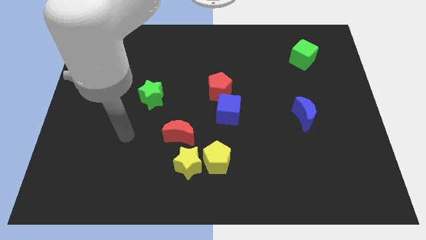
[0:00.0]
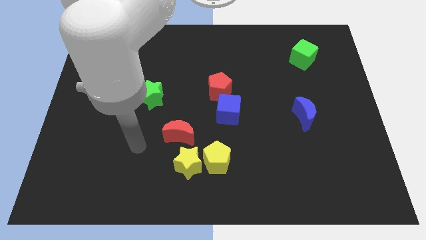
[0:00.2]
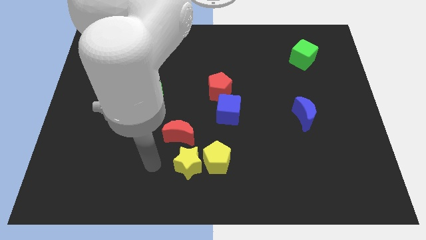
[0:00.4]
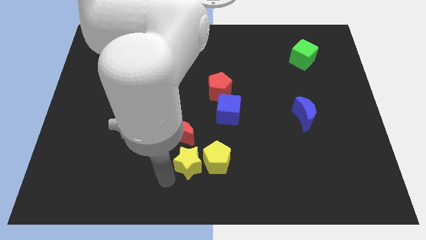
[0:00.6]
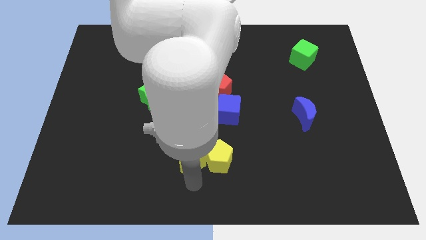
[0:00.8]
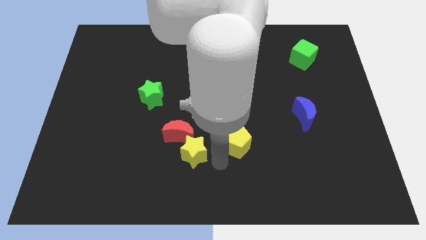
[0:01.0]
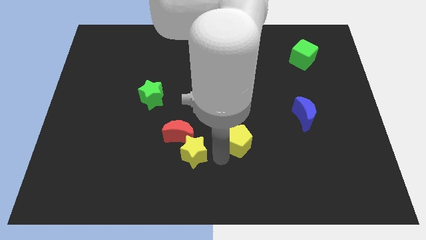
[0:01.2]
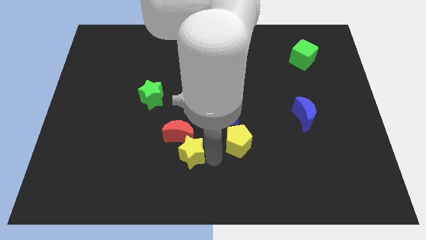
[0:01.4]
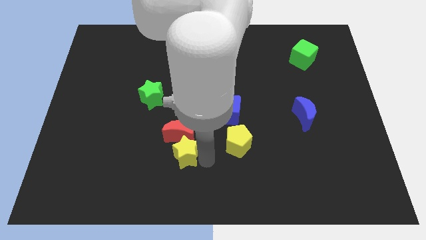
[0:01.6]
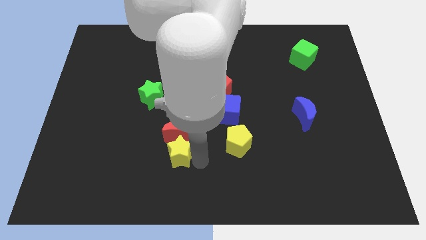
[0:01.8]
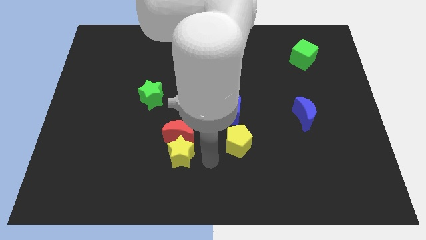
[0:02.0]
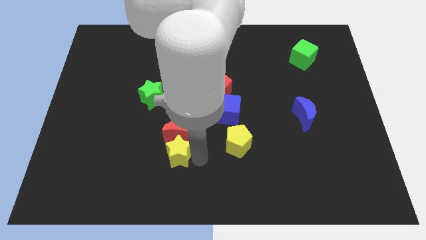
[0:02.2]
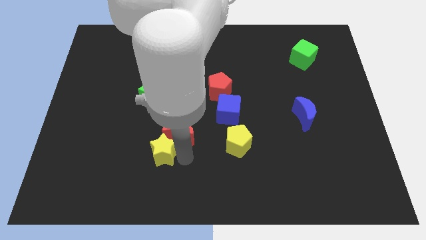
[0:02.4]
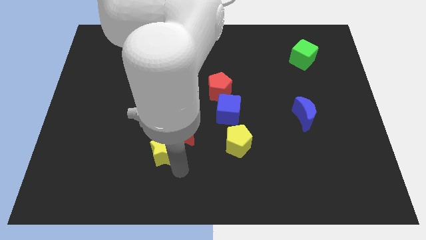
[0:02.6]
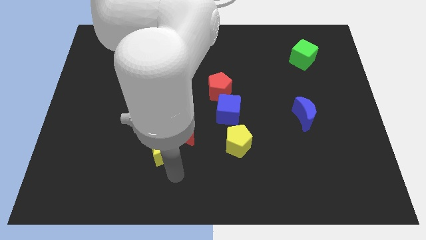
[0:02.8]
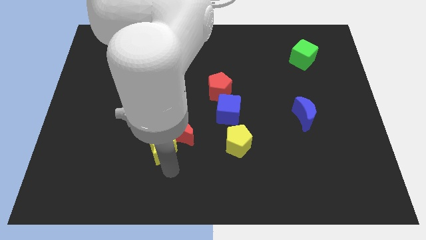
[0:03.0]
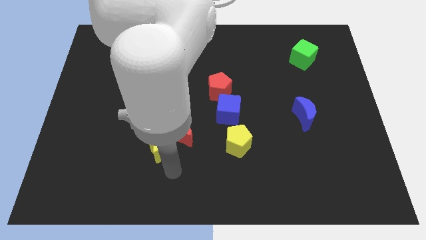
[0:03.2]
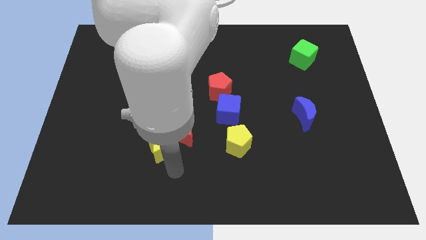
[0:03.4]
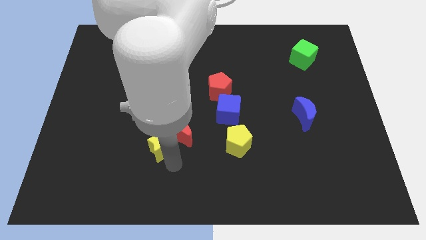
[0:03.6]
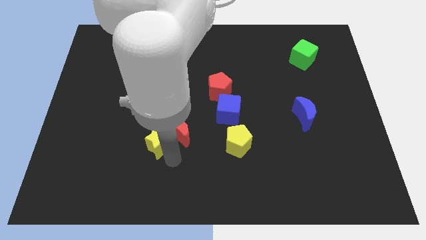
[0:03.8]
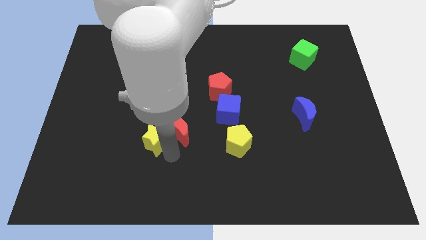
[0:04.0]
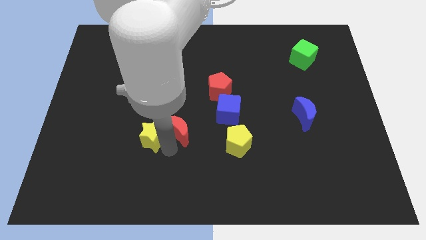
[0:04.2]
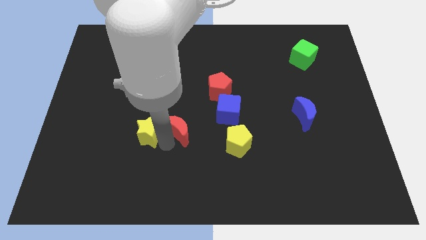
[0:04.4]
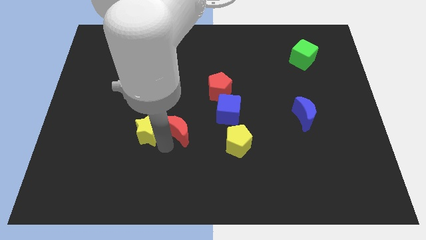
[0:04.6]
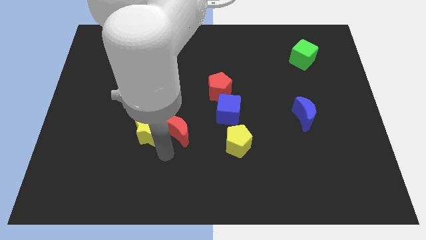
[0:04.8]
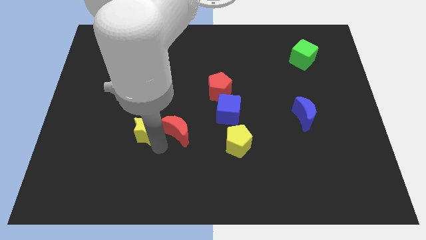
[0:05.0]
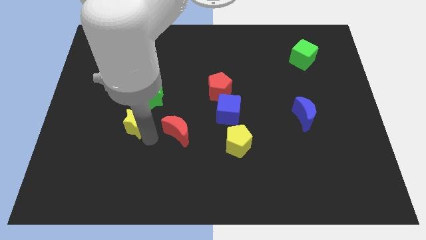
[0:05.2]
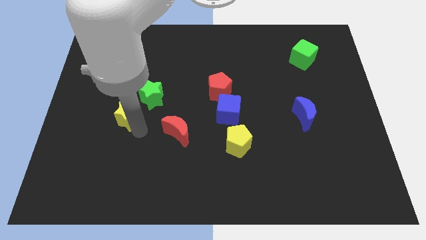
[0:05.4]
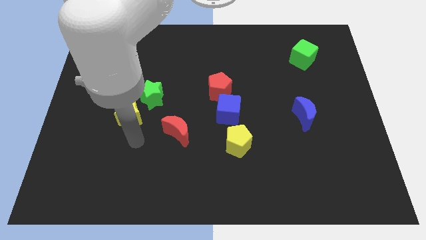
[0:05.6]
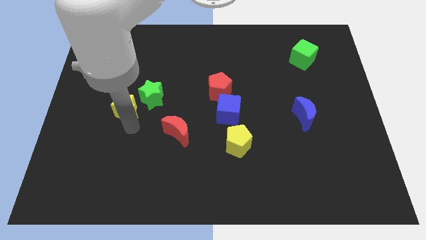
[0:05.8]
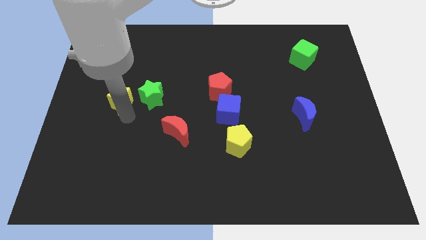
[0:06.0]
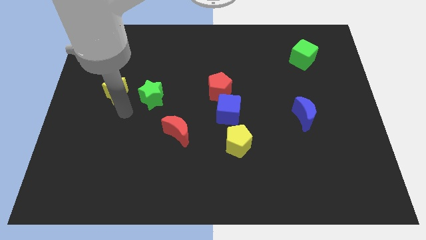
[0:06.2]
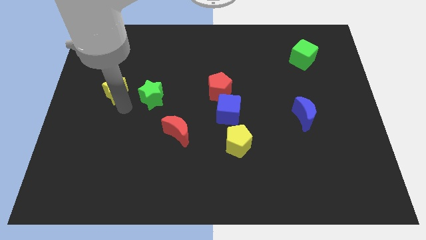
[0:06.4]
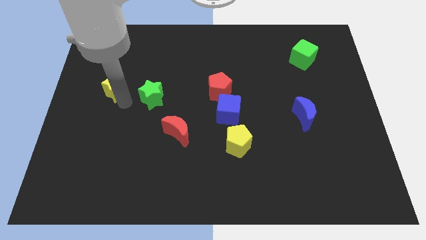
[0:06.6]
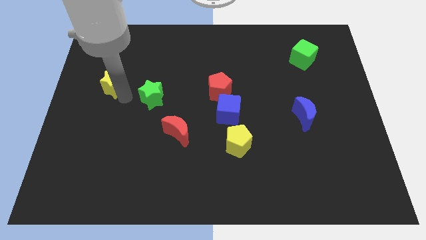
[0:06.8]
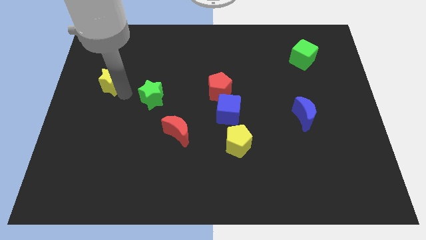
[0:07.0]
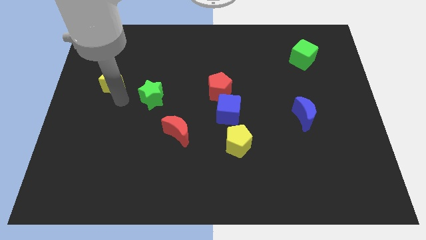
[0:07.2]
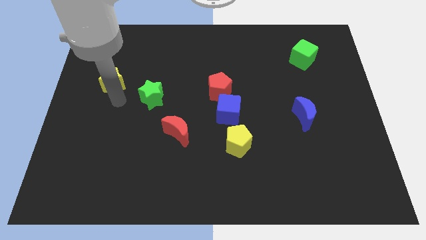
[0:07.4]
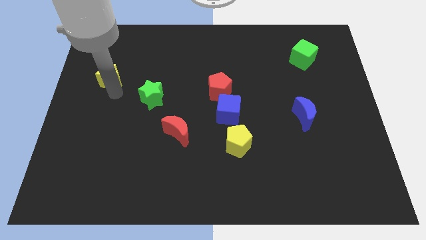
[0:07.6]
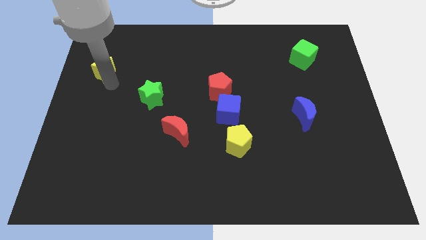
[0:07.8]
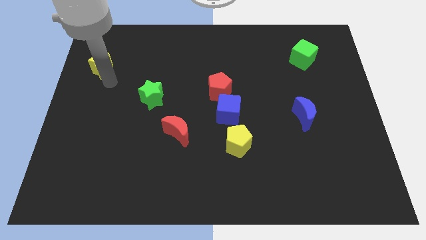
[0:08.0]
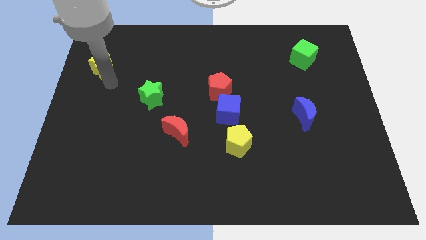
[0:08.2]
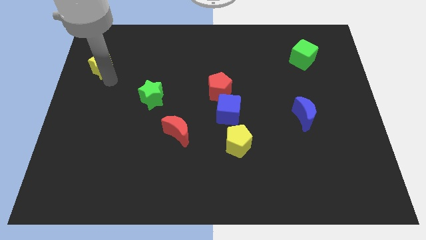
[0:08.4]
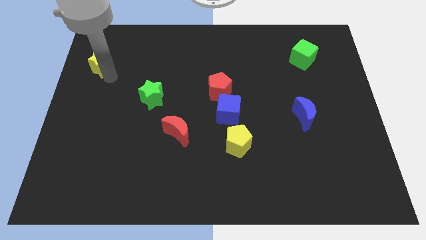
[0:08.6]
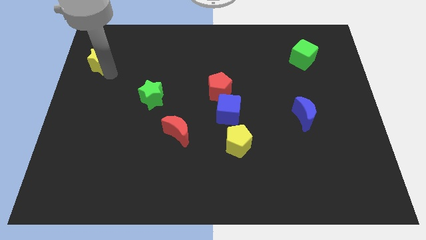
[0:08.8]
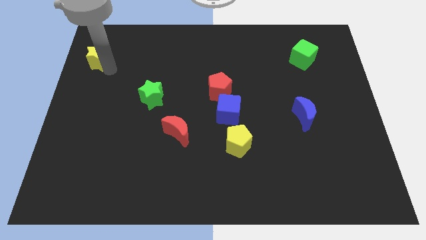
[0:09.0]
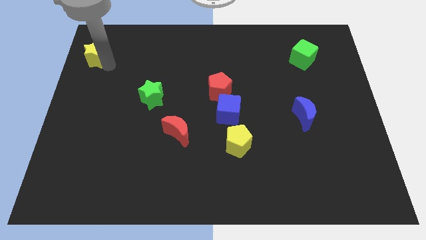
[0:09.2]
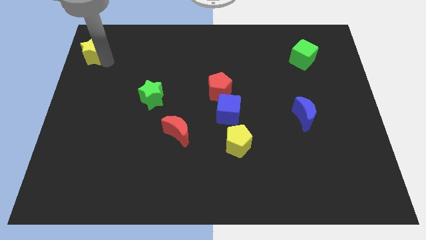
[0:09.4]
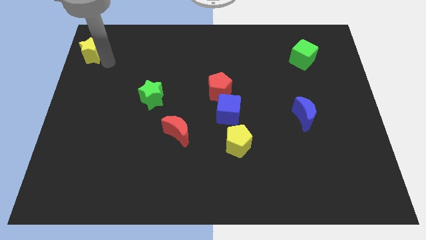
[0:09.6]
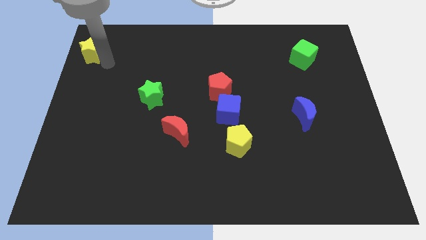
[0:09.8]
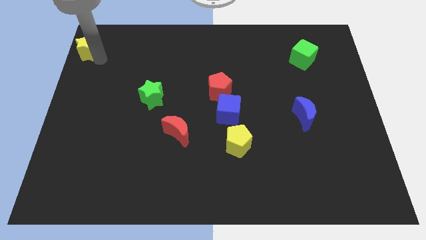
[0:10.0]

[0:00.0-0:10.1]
push the yellow star to the top left corner
